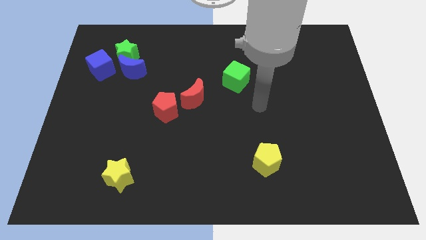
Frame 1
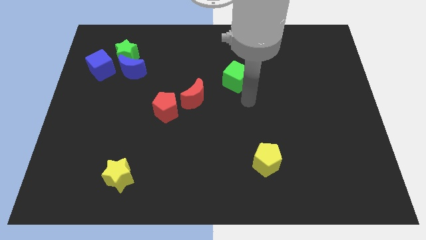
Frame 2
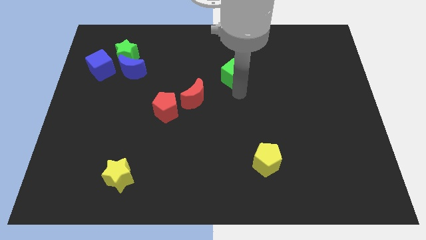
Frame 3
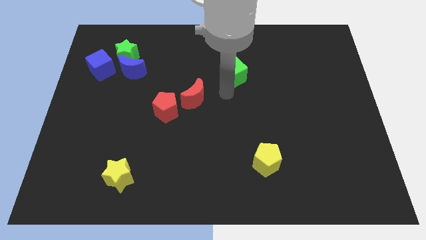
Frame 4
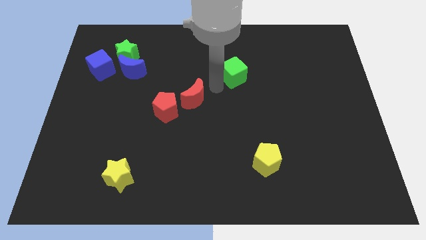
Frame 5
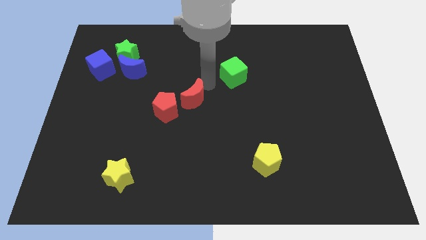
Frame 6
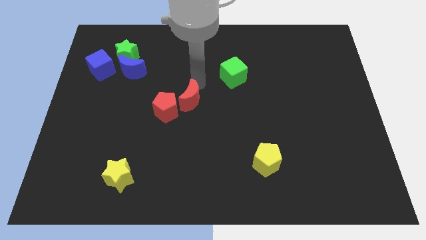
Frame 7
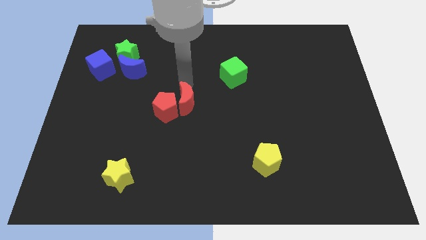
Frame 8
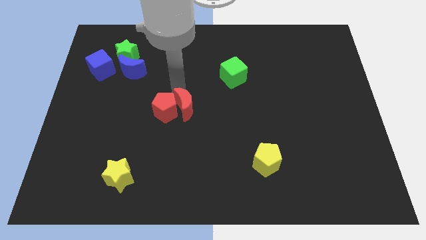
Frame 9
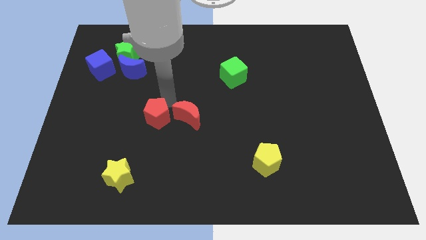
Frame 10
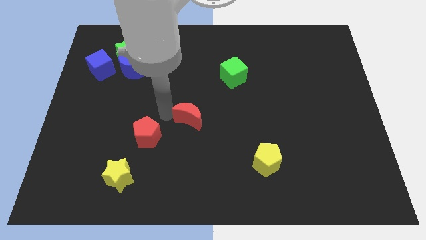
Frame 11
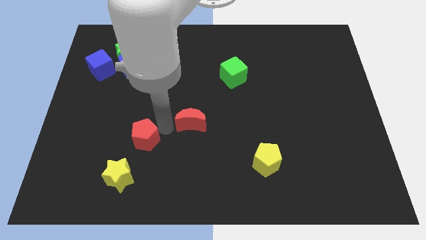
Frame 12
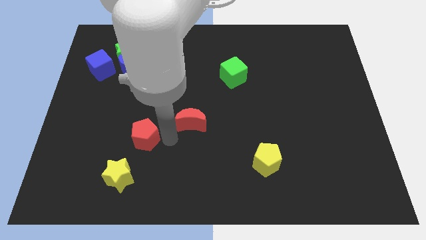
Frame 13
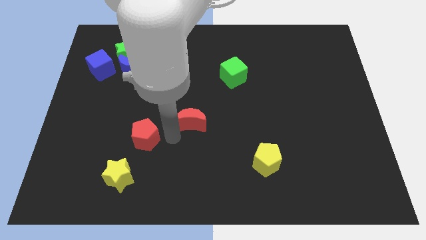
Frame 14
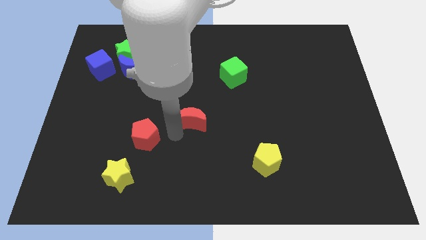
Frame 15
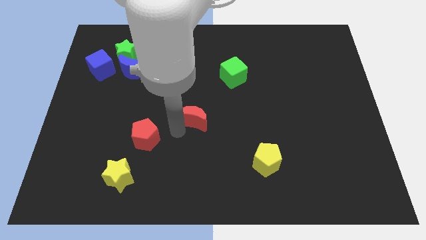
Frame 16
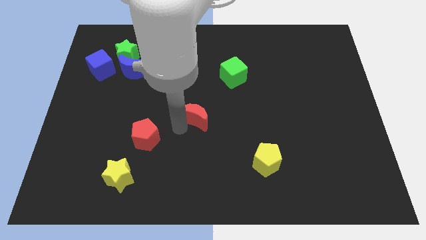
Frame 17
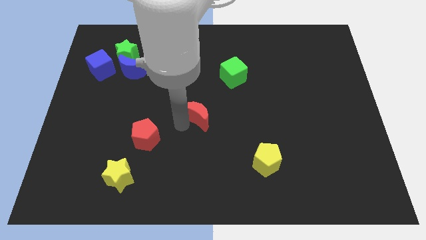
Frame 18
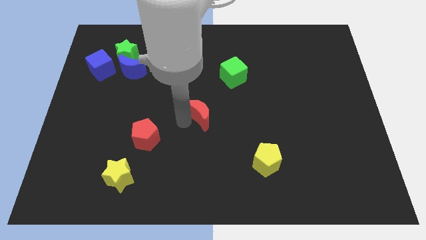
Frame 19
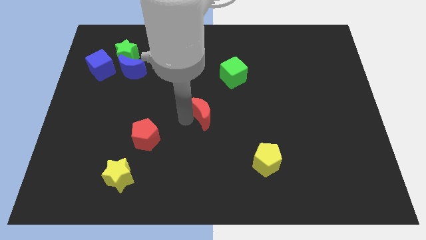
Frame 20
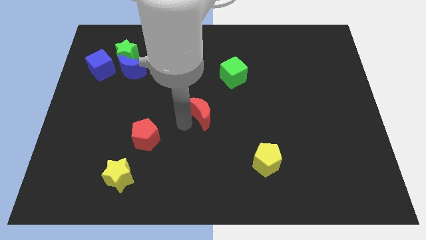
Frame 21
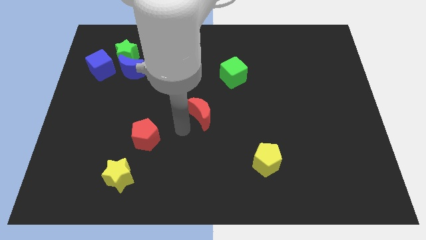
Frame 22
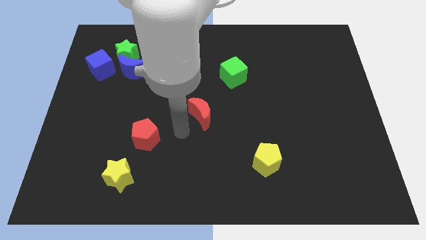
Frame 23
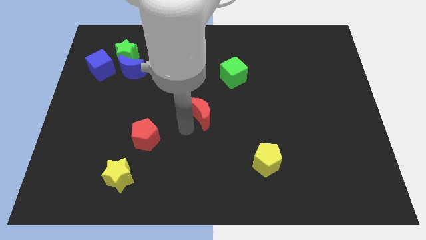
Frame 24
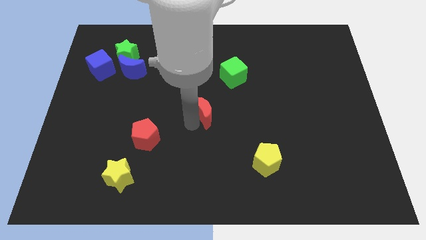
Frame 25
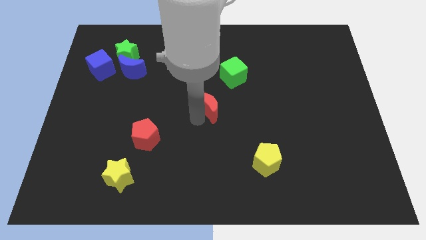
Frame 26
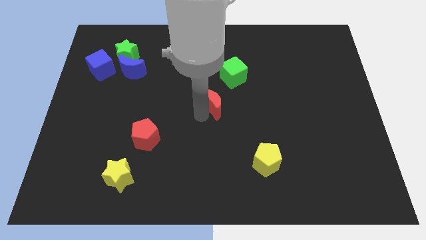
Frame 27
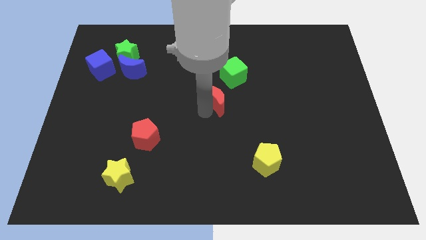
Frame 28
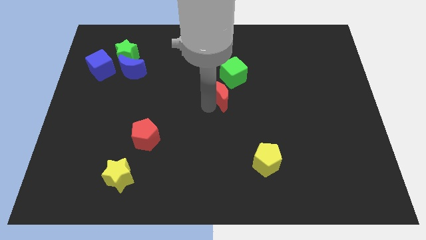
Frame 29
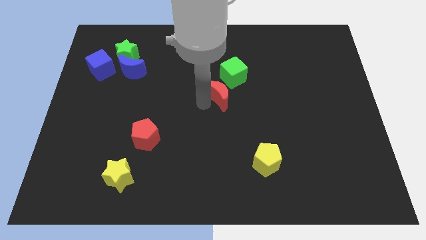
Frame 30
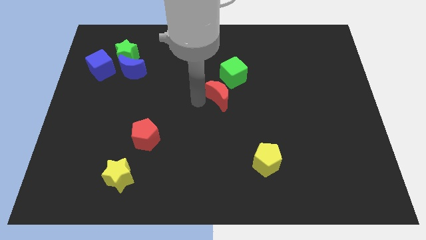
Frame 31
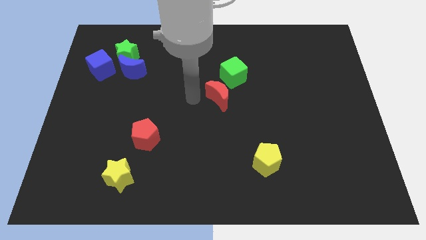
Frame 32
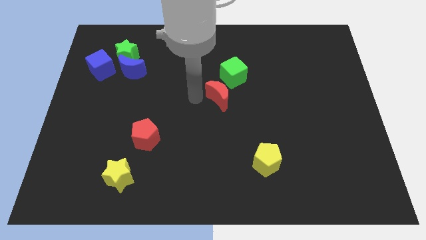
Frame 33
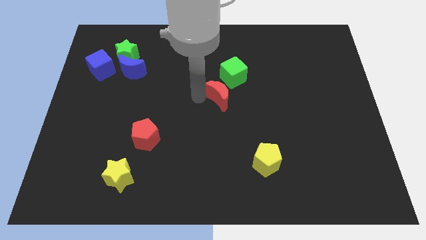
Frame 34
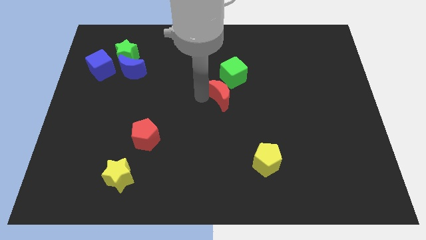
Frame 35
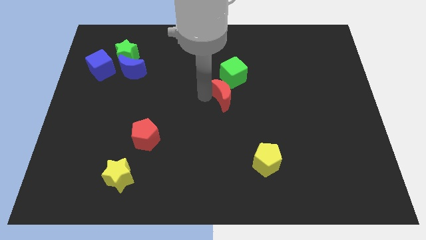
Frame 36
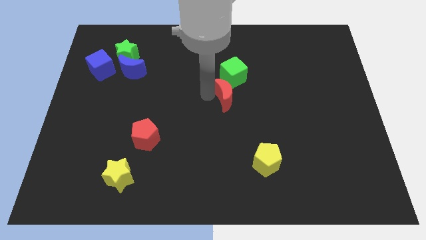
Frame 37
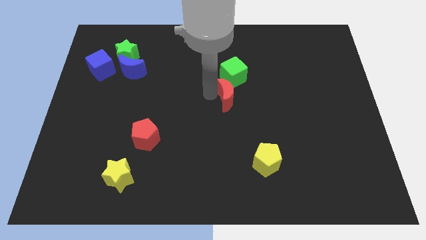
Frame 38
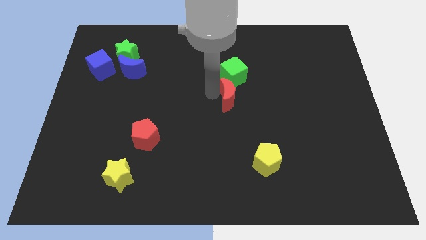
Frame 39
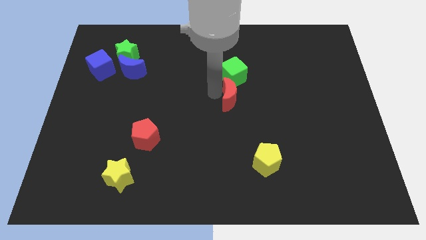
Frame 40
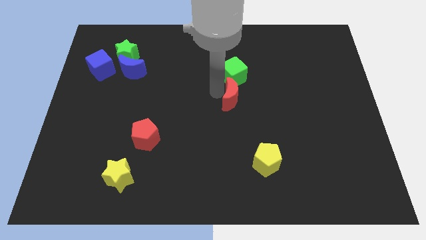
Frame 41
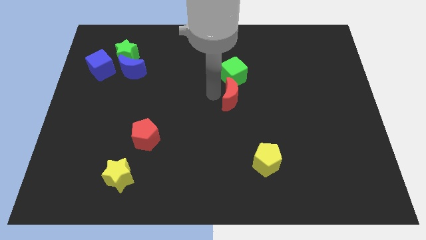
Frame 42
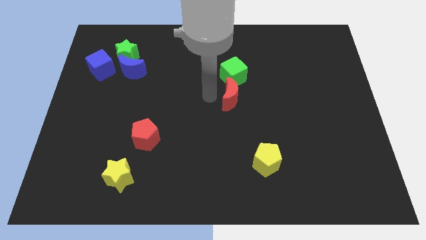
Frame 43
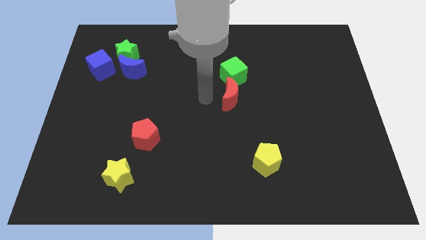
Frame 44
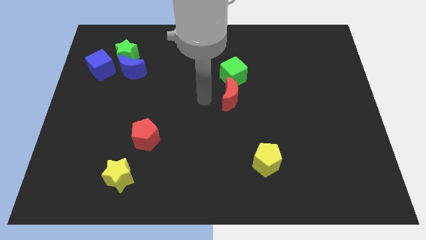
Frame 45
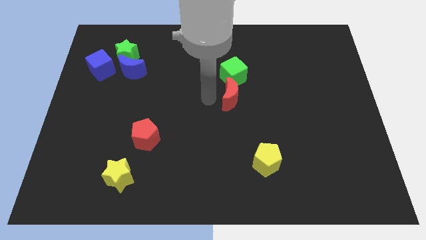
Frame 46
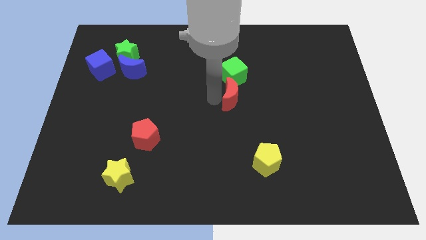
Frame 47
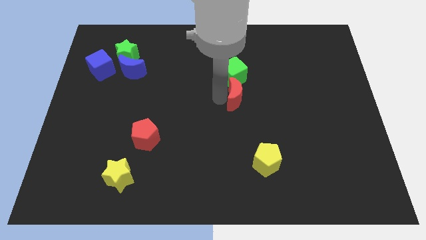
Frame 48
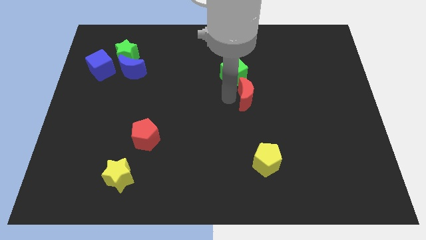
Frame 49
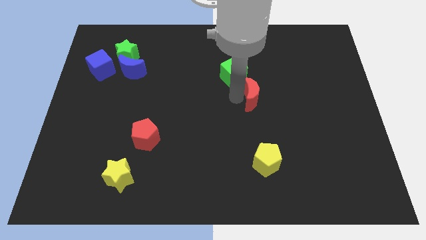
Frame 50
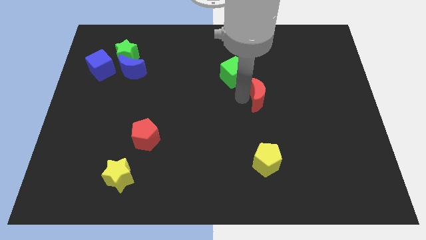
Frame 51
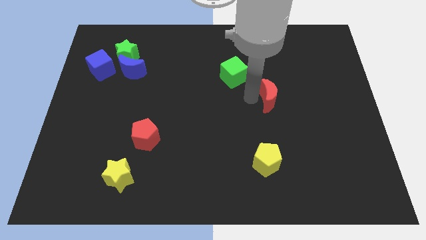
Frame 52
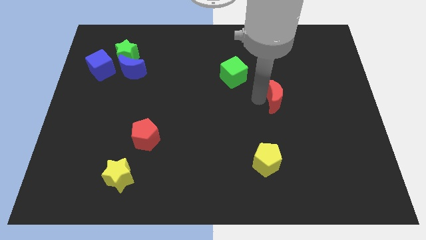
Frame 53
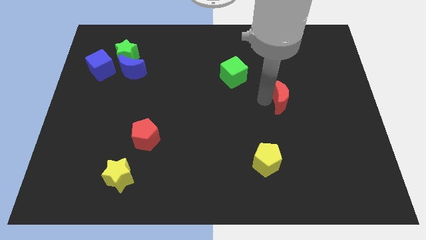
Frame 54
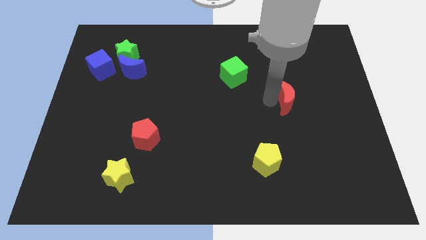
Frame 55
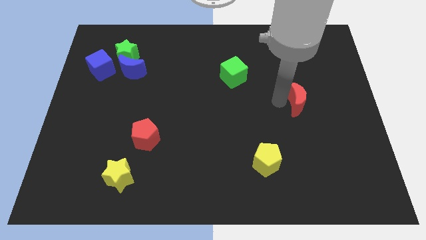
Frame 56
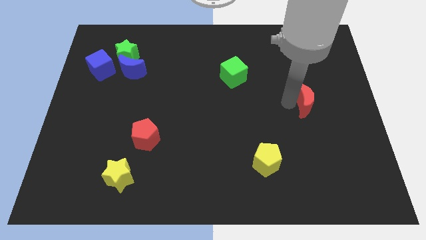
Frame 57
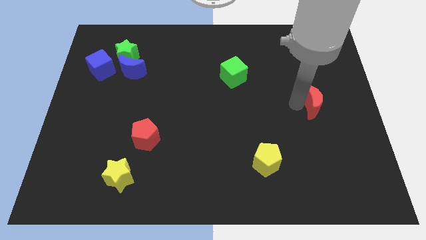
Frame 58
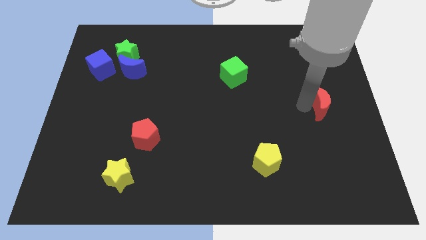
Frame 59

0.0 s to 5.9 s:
put the red moon to the right side

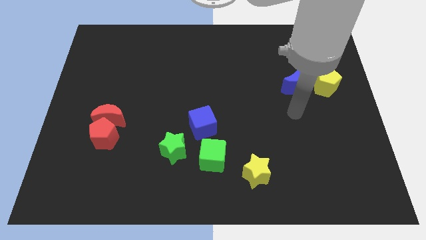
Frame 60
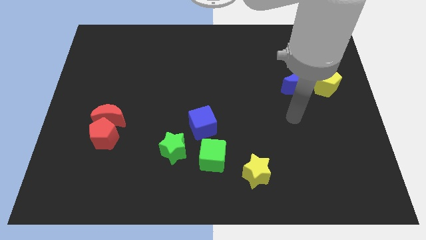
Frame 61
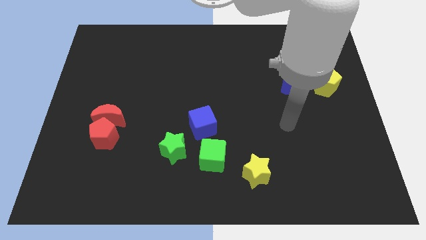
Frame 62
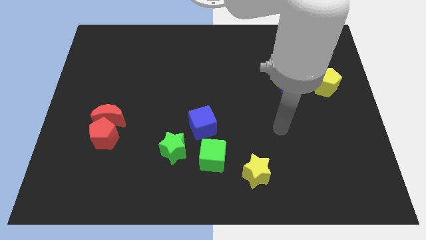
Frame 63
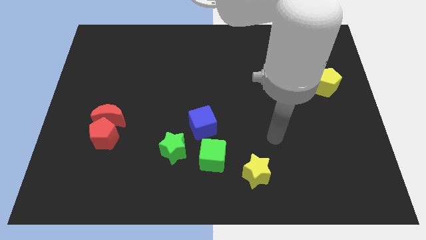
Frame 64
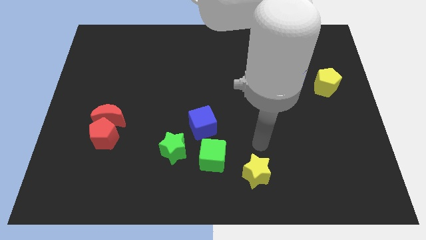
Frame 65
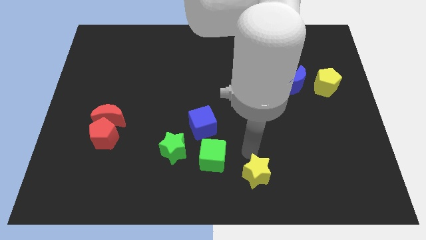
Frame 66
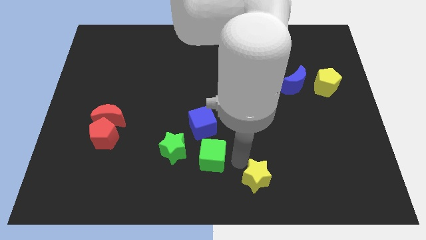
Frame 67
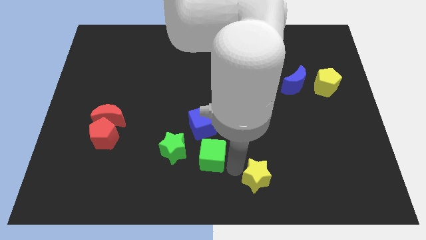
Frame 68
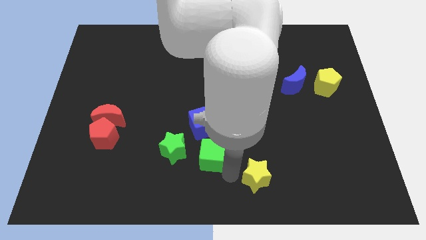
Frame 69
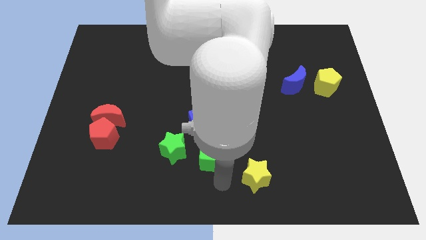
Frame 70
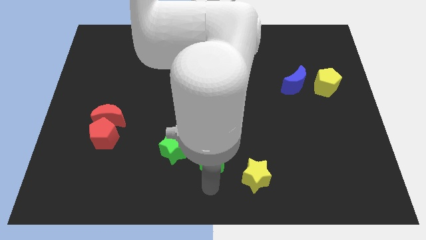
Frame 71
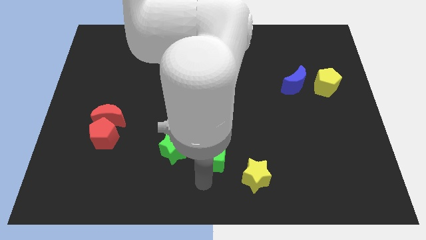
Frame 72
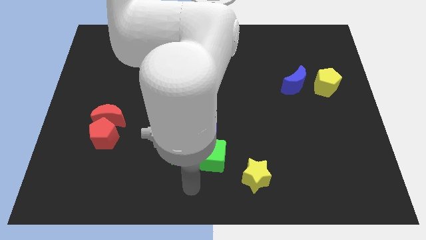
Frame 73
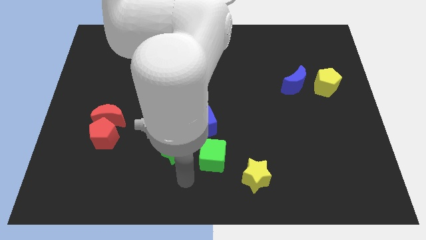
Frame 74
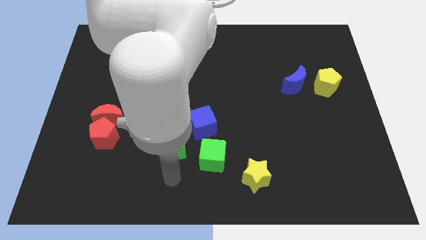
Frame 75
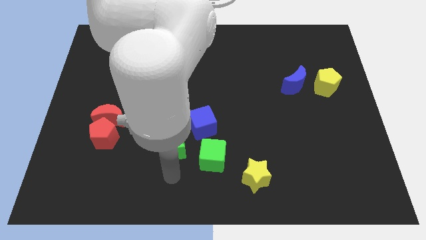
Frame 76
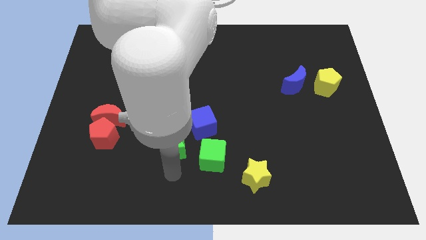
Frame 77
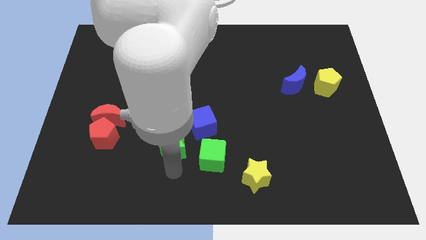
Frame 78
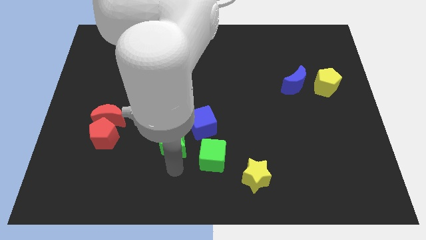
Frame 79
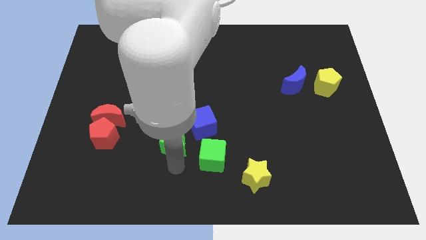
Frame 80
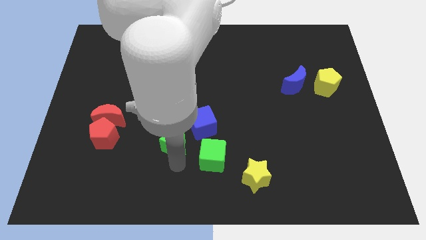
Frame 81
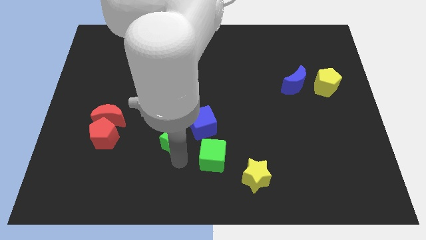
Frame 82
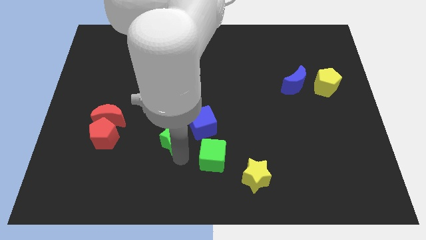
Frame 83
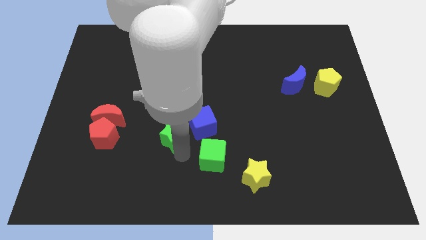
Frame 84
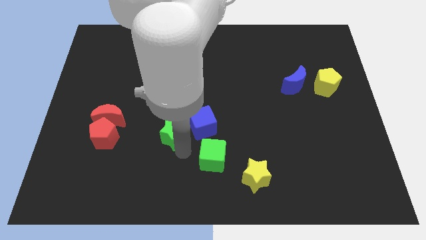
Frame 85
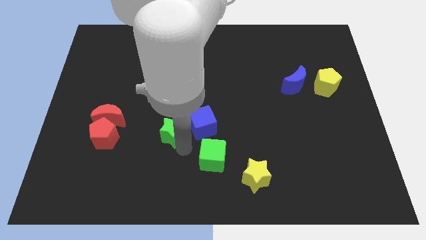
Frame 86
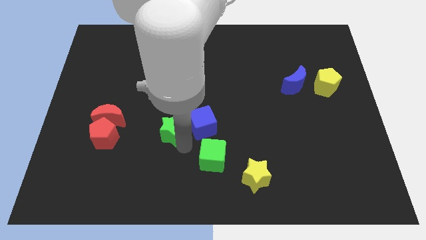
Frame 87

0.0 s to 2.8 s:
put the green star to the center of the board
